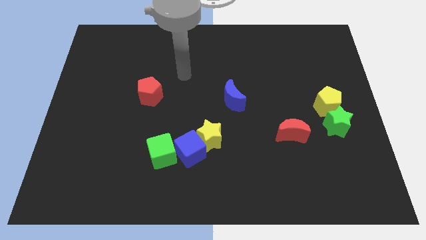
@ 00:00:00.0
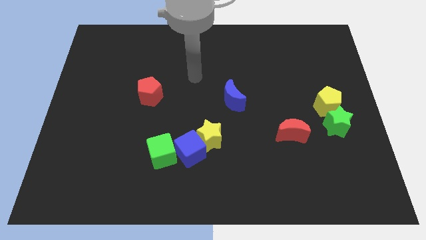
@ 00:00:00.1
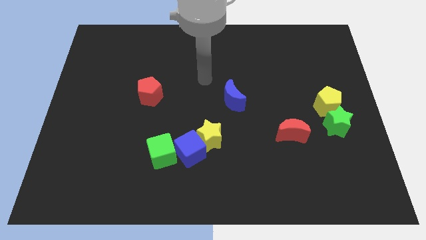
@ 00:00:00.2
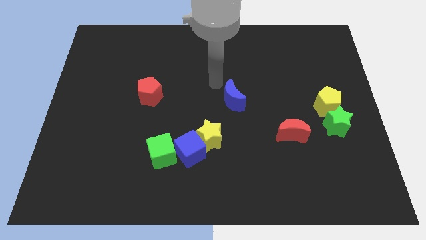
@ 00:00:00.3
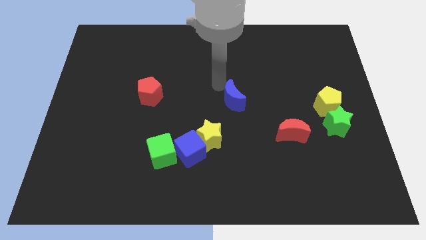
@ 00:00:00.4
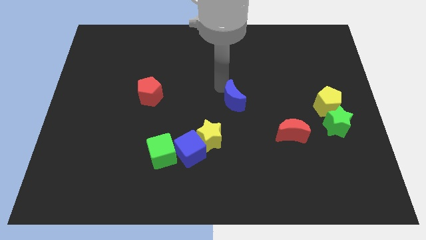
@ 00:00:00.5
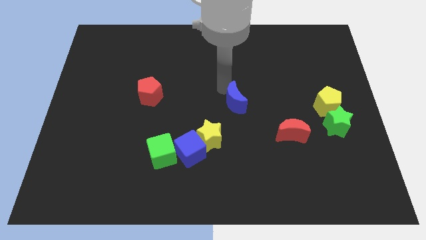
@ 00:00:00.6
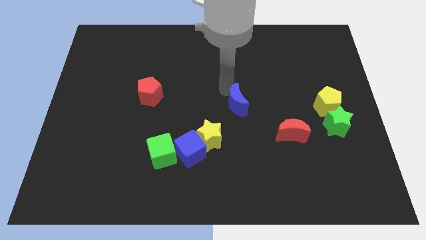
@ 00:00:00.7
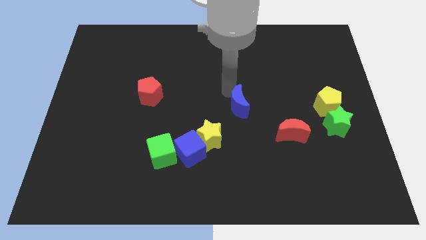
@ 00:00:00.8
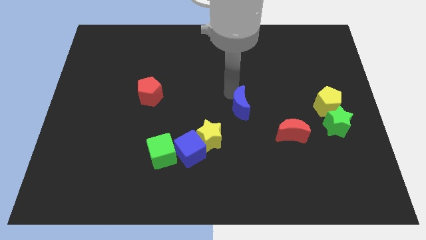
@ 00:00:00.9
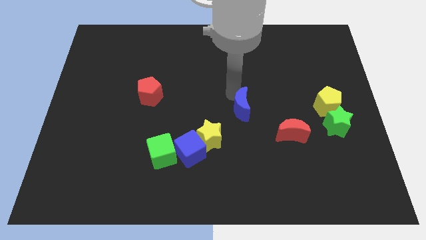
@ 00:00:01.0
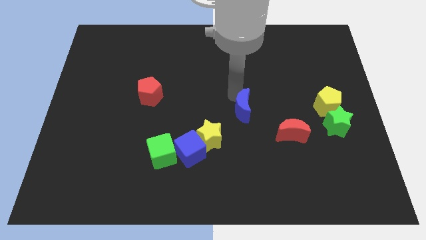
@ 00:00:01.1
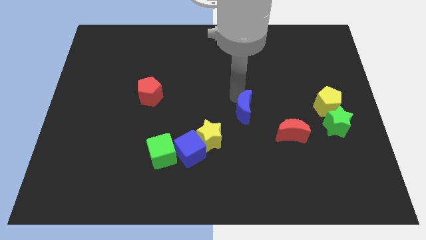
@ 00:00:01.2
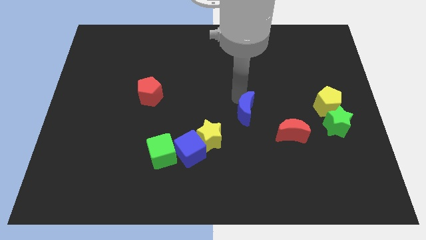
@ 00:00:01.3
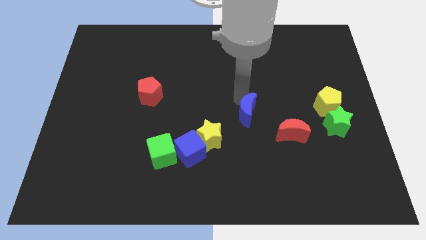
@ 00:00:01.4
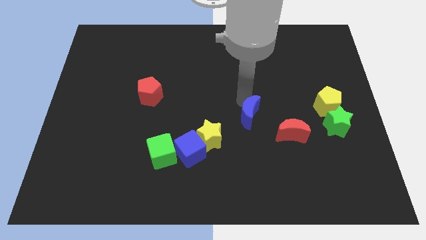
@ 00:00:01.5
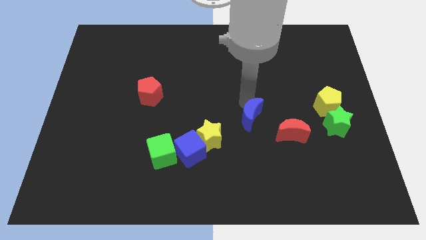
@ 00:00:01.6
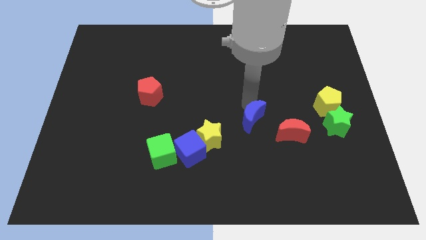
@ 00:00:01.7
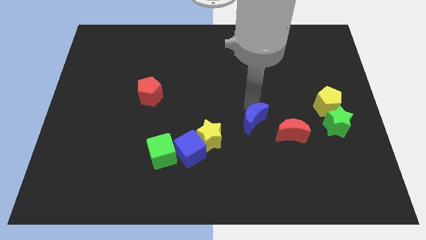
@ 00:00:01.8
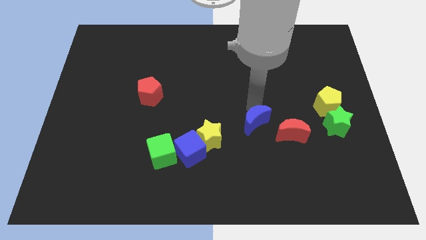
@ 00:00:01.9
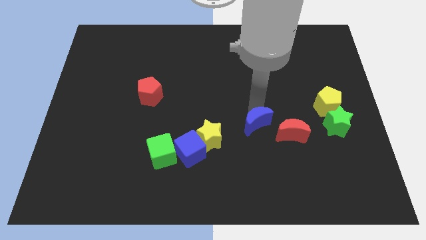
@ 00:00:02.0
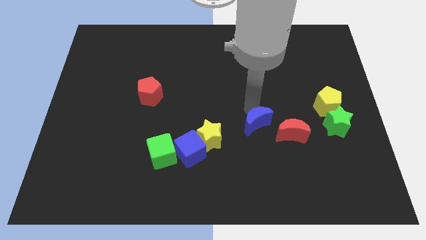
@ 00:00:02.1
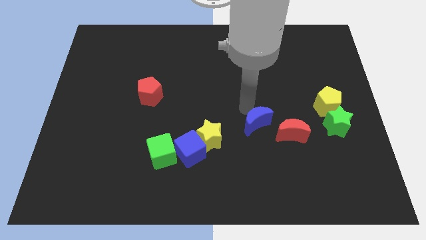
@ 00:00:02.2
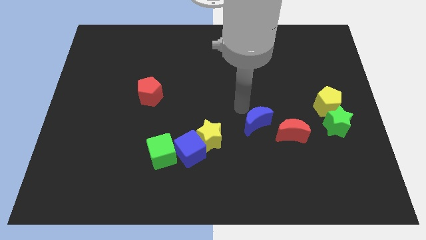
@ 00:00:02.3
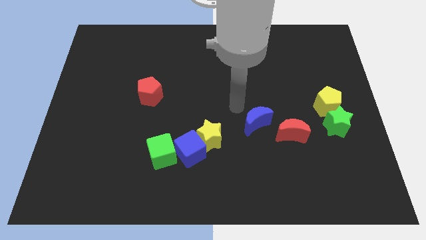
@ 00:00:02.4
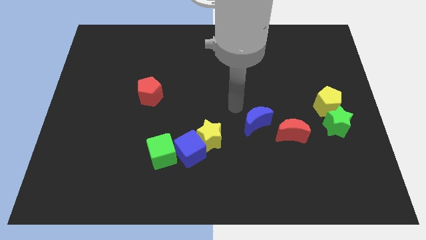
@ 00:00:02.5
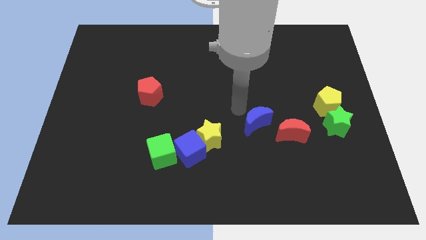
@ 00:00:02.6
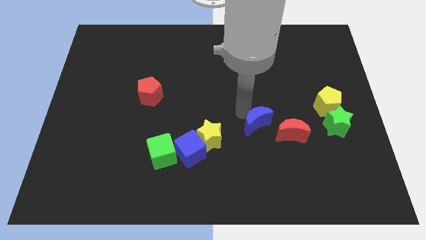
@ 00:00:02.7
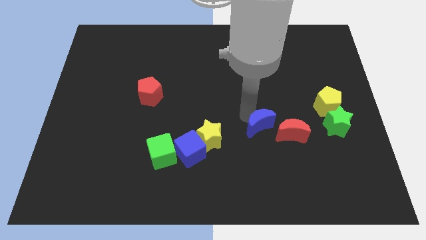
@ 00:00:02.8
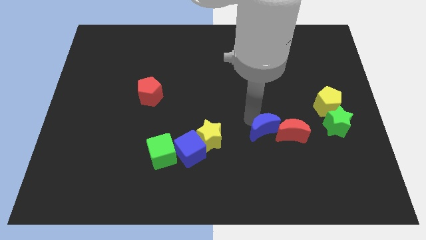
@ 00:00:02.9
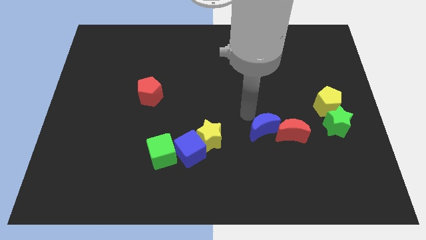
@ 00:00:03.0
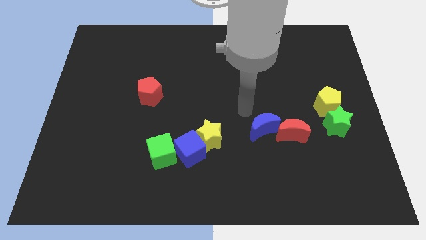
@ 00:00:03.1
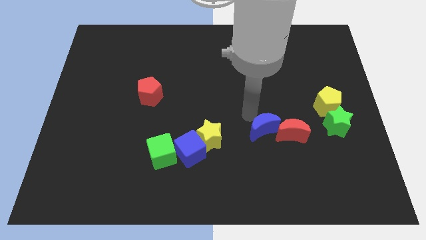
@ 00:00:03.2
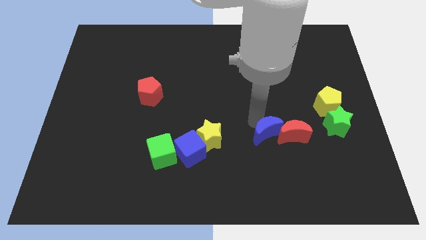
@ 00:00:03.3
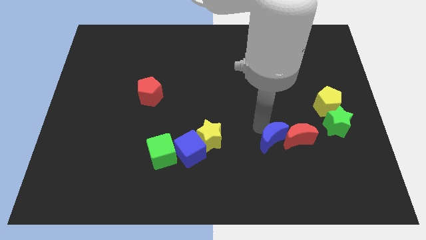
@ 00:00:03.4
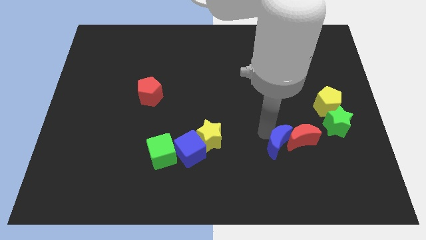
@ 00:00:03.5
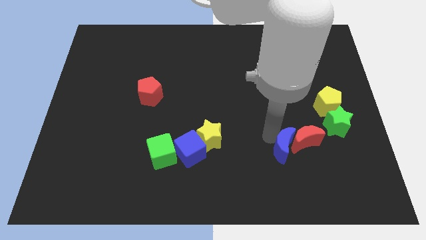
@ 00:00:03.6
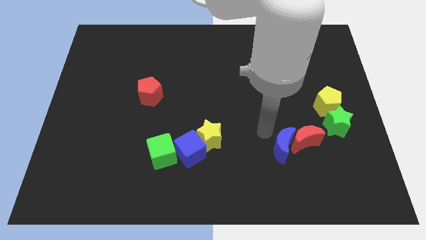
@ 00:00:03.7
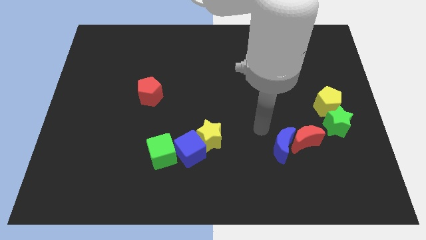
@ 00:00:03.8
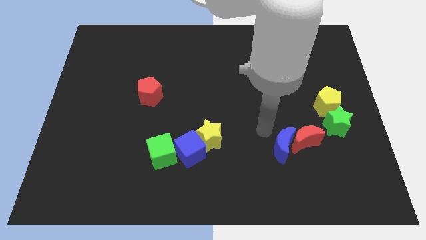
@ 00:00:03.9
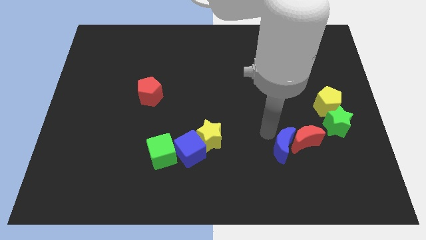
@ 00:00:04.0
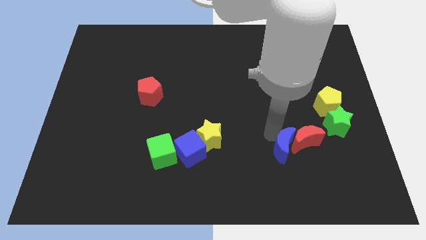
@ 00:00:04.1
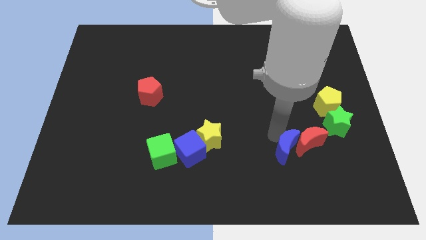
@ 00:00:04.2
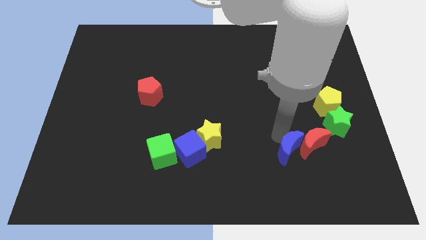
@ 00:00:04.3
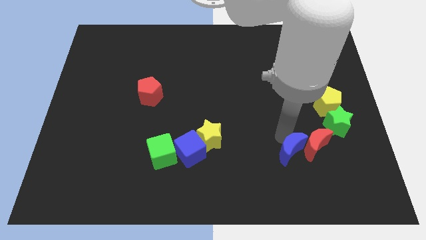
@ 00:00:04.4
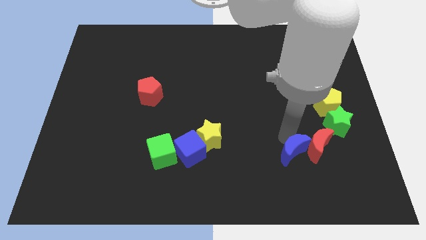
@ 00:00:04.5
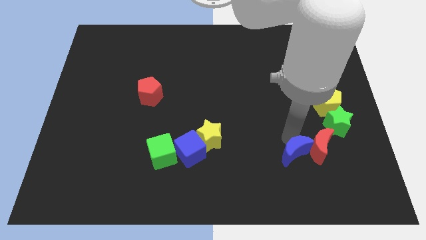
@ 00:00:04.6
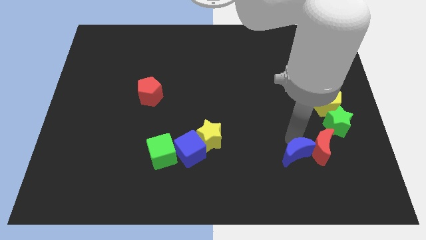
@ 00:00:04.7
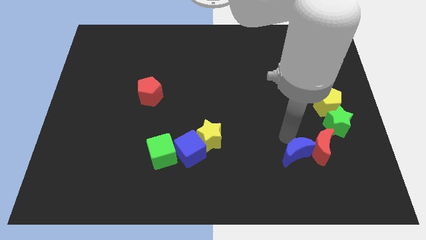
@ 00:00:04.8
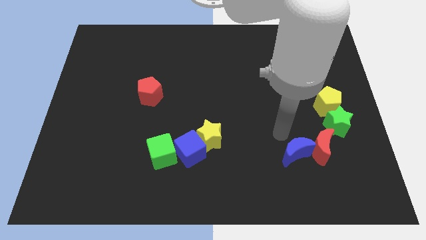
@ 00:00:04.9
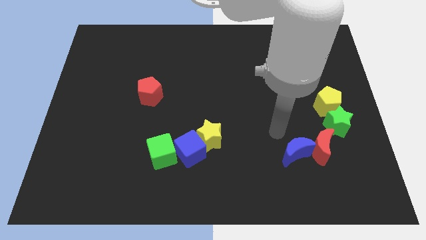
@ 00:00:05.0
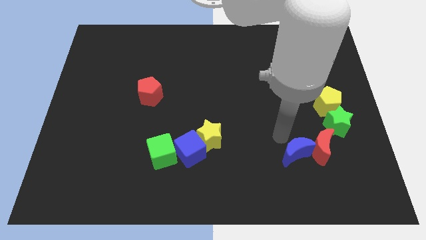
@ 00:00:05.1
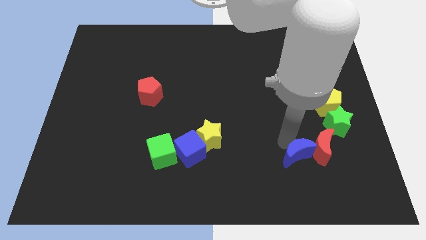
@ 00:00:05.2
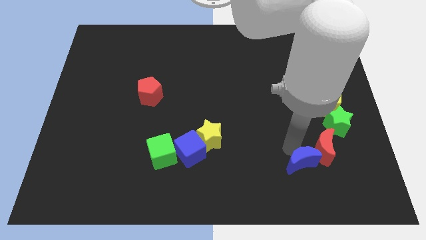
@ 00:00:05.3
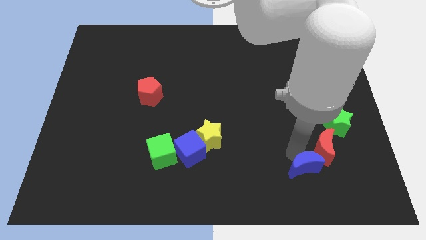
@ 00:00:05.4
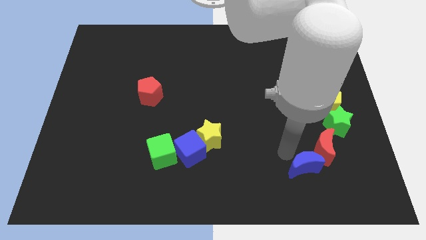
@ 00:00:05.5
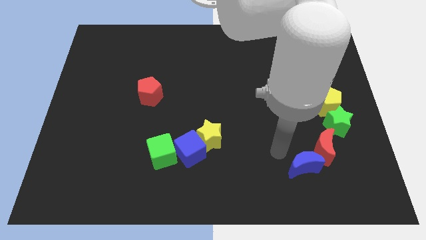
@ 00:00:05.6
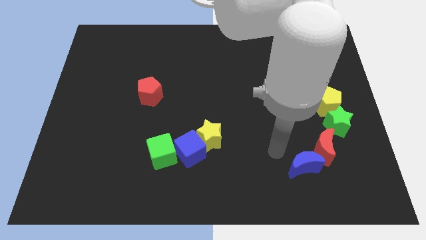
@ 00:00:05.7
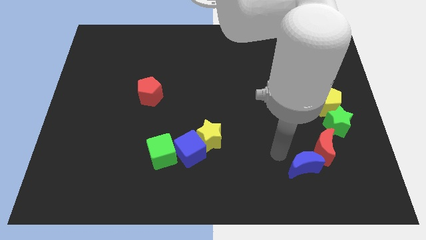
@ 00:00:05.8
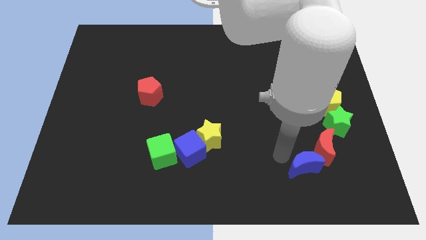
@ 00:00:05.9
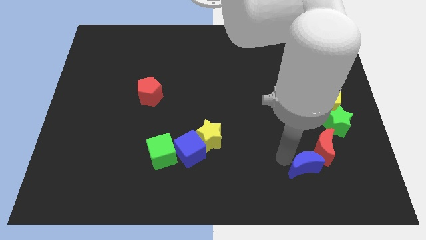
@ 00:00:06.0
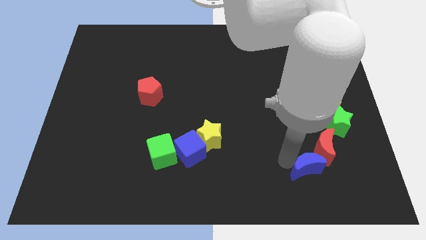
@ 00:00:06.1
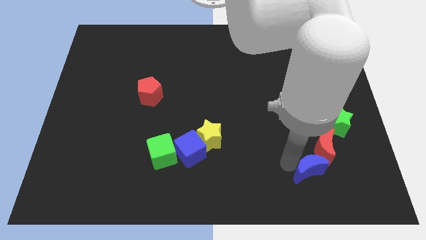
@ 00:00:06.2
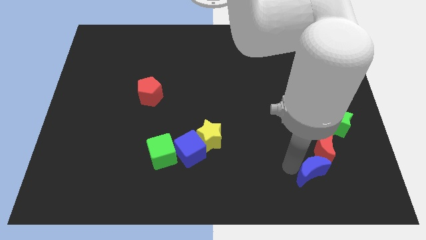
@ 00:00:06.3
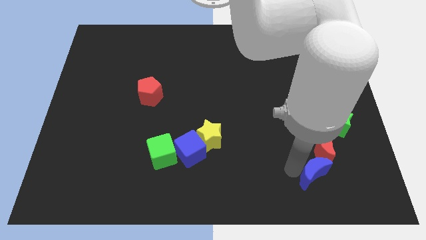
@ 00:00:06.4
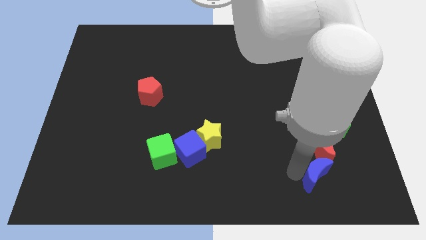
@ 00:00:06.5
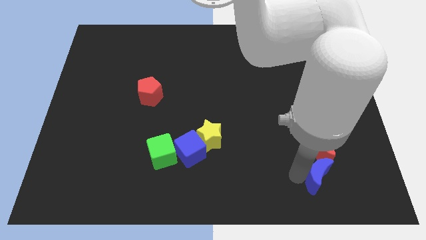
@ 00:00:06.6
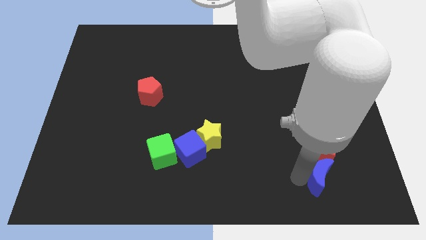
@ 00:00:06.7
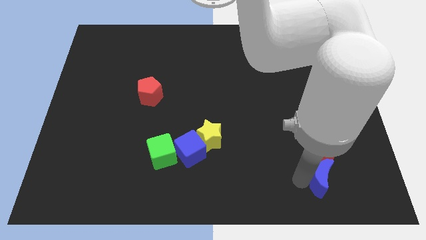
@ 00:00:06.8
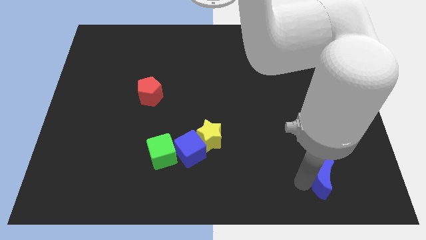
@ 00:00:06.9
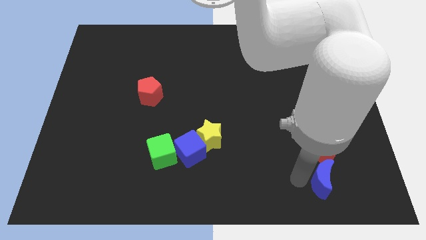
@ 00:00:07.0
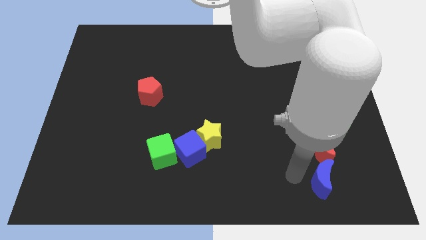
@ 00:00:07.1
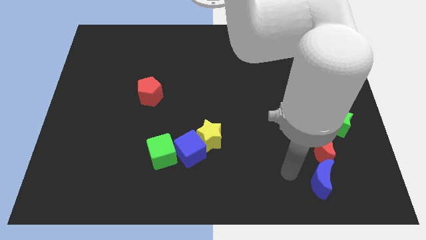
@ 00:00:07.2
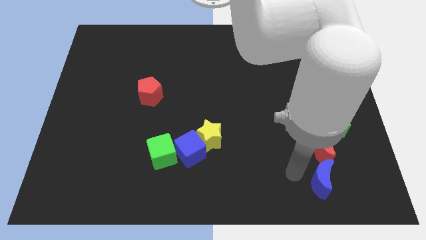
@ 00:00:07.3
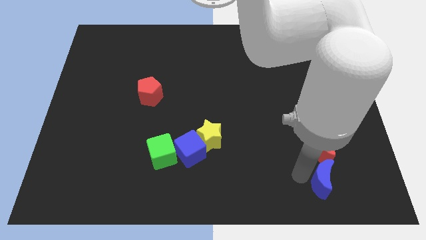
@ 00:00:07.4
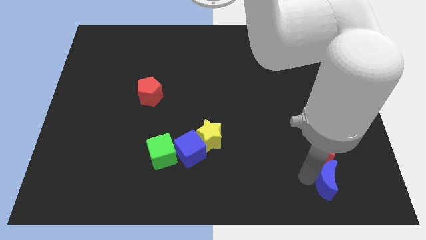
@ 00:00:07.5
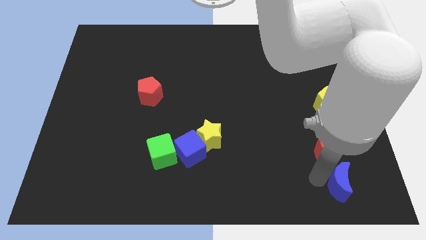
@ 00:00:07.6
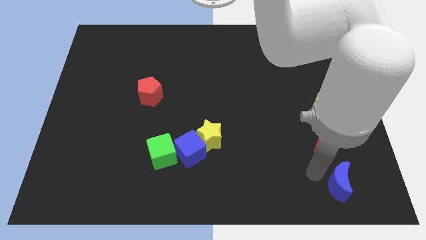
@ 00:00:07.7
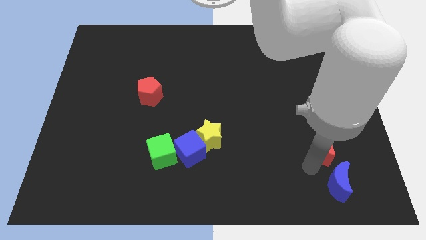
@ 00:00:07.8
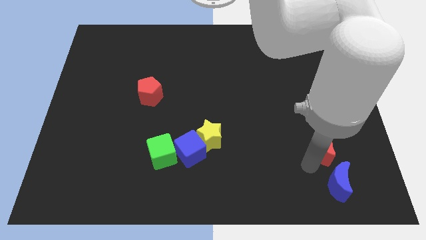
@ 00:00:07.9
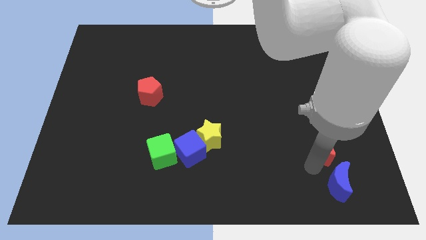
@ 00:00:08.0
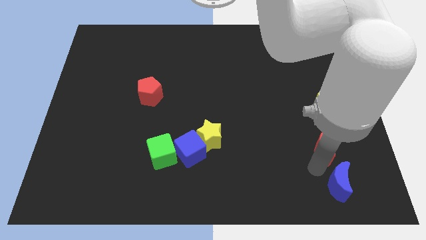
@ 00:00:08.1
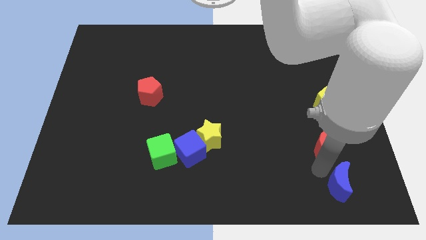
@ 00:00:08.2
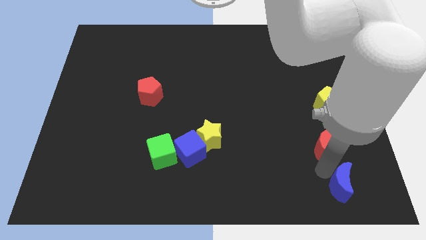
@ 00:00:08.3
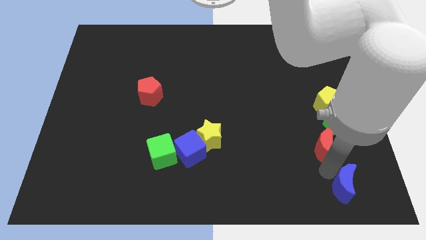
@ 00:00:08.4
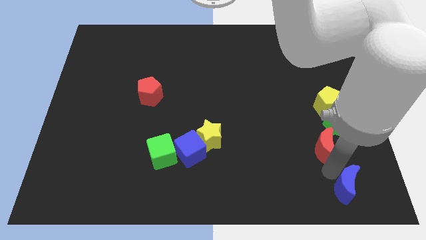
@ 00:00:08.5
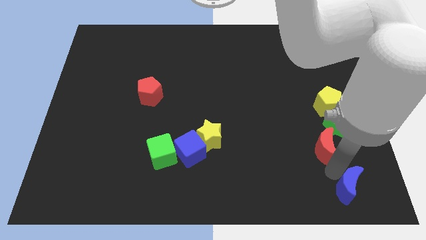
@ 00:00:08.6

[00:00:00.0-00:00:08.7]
push the blue moon to the bottom right
